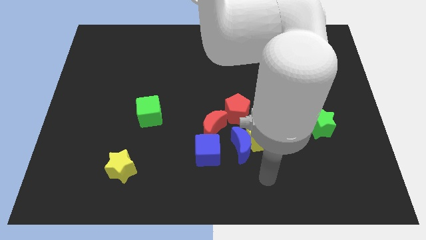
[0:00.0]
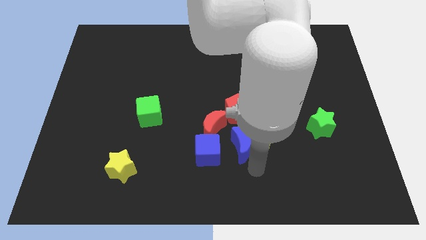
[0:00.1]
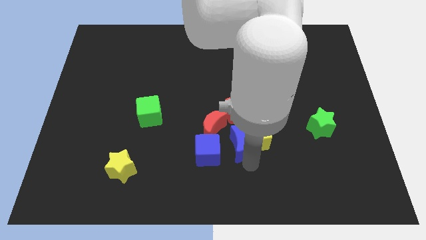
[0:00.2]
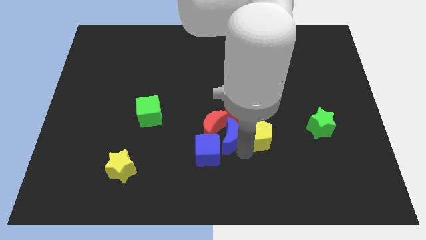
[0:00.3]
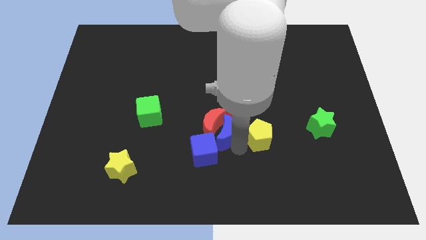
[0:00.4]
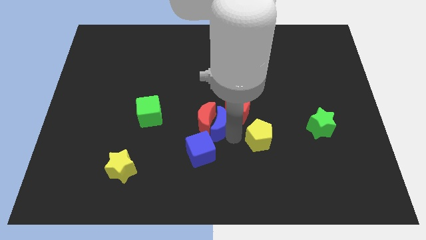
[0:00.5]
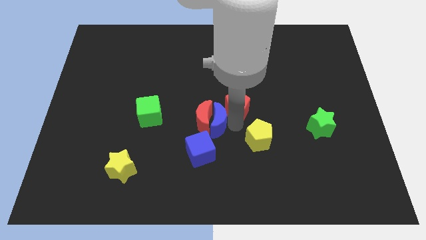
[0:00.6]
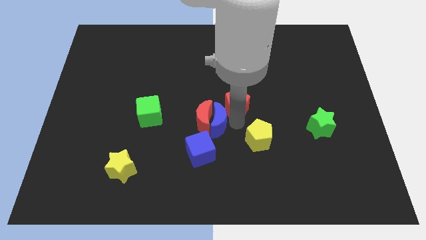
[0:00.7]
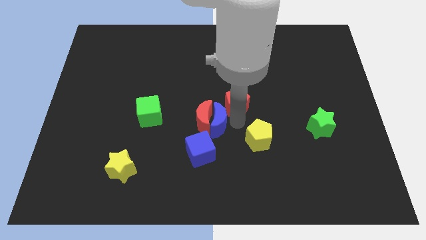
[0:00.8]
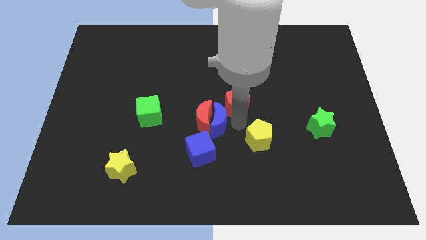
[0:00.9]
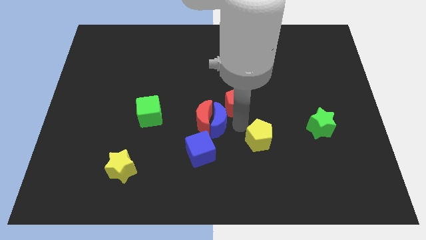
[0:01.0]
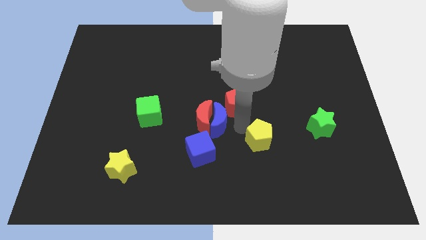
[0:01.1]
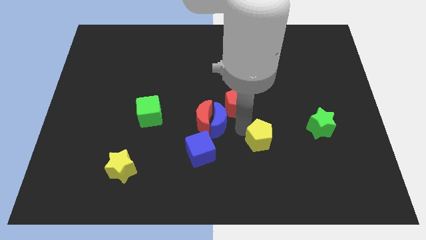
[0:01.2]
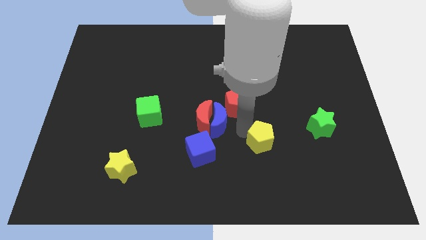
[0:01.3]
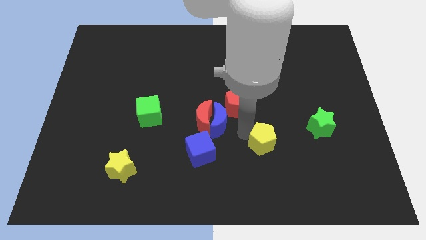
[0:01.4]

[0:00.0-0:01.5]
separate the yellow pentagon from the blue moon and red pentagon

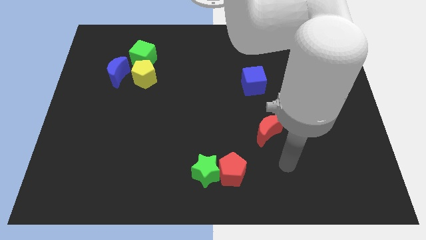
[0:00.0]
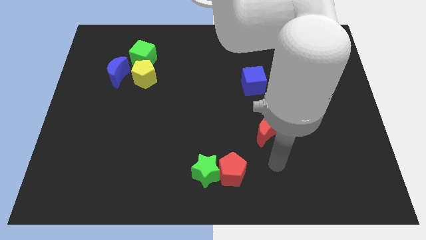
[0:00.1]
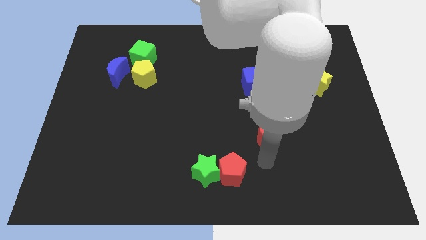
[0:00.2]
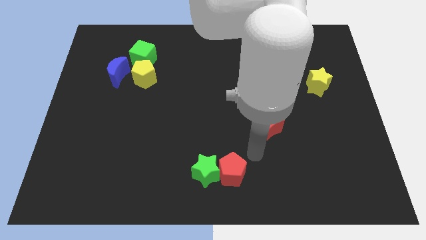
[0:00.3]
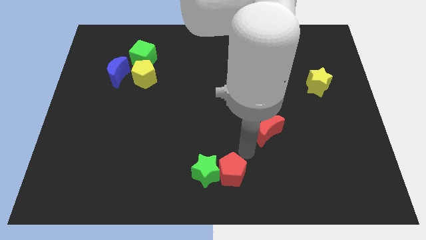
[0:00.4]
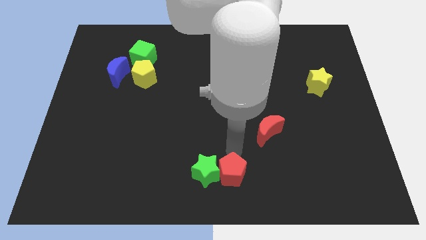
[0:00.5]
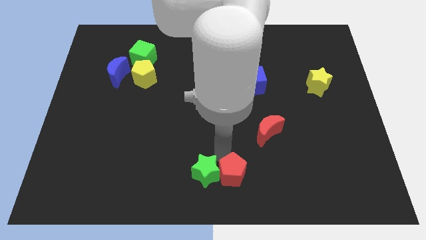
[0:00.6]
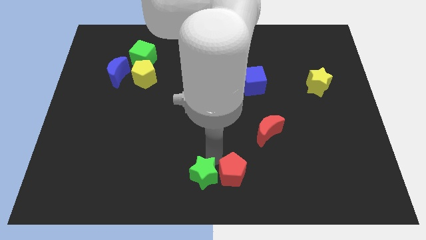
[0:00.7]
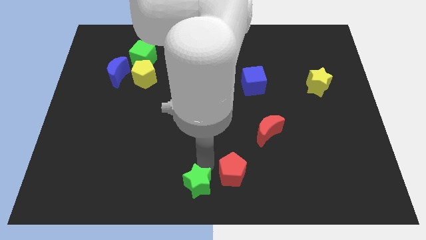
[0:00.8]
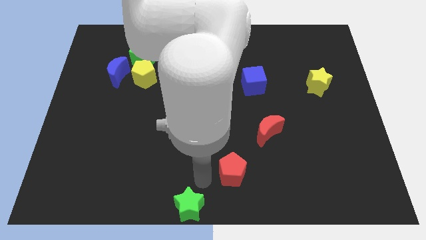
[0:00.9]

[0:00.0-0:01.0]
move the red pentagon away from the green star

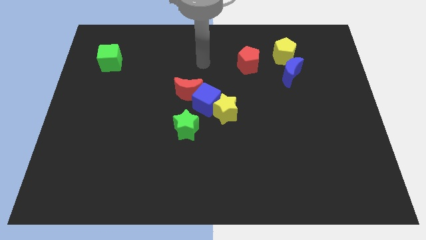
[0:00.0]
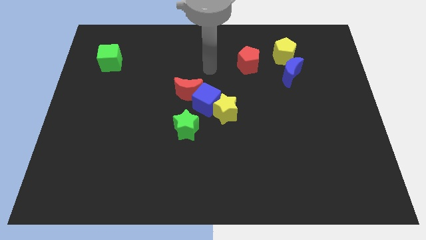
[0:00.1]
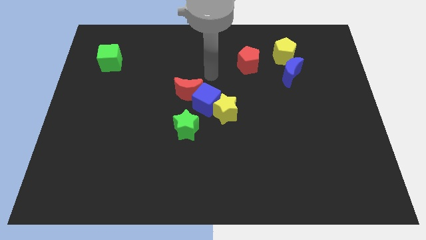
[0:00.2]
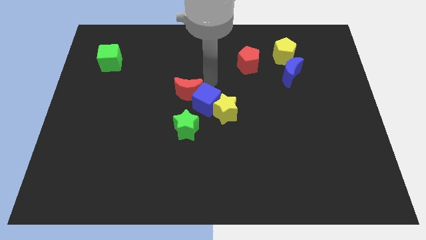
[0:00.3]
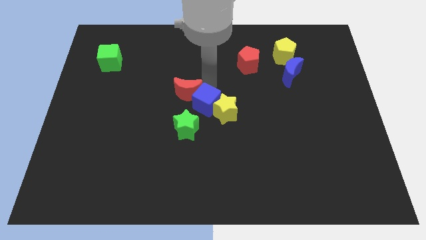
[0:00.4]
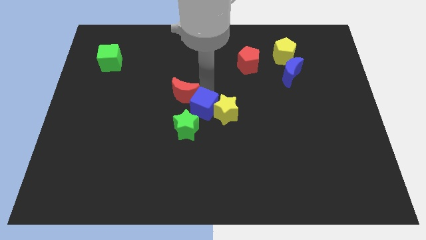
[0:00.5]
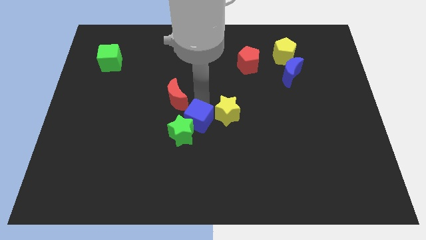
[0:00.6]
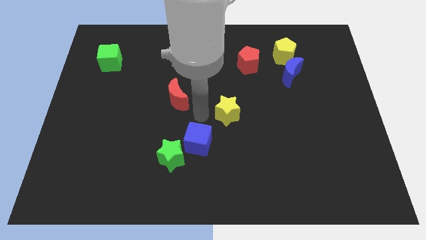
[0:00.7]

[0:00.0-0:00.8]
pull the yellow star apart from the blue cube

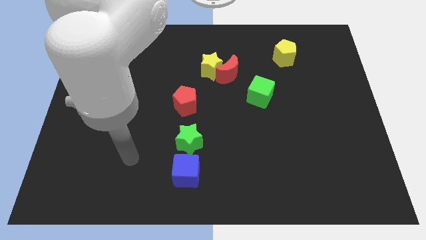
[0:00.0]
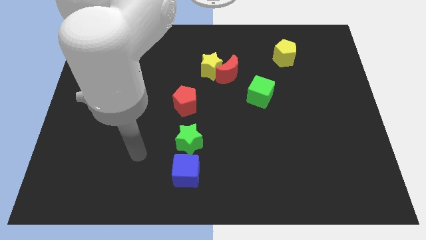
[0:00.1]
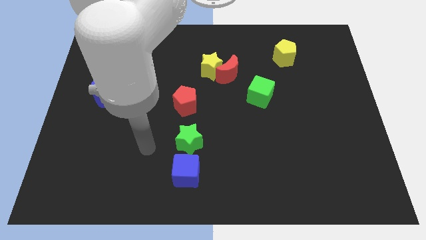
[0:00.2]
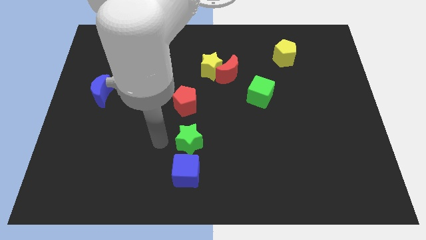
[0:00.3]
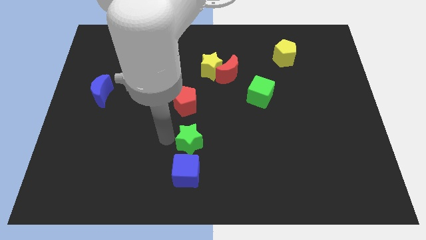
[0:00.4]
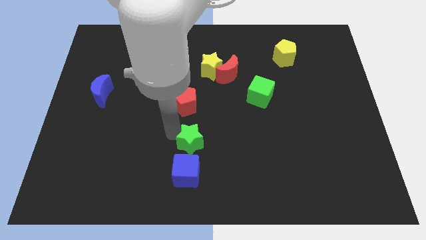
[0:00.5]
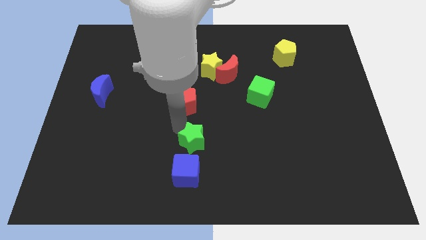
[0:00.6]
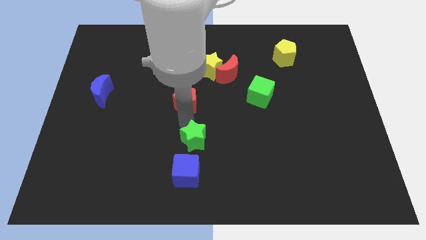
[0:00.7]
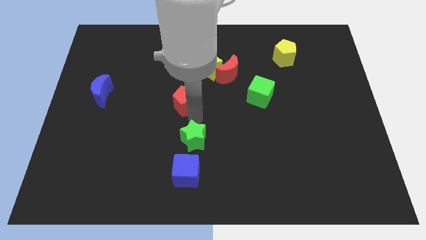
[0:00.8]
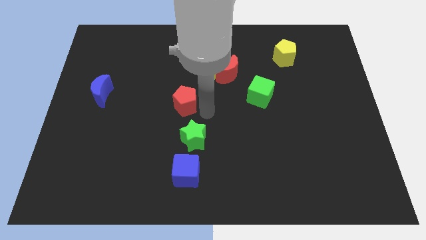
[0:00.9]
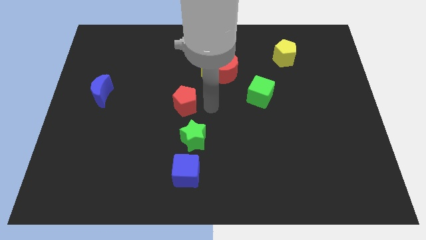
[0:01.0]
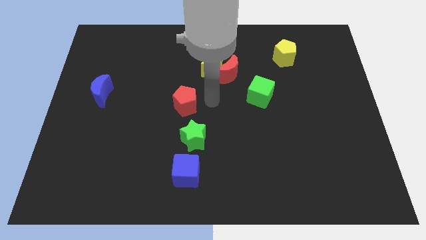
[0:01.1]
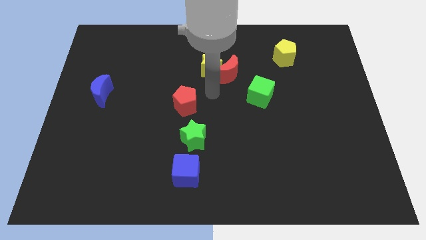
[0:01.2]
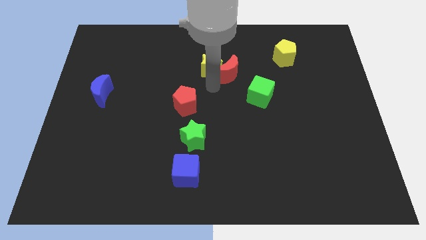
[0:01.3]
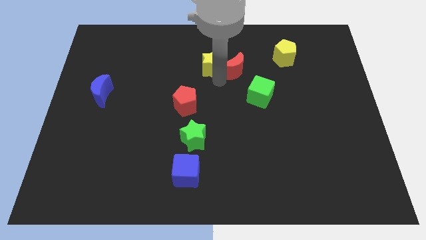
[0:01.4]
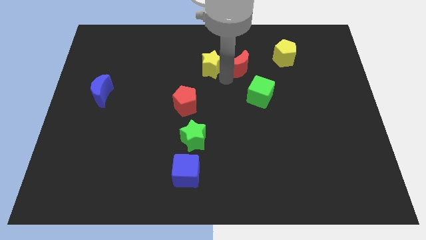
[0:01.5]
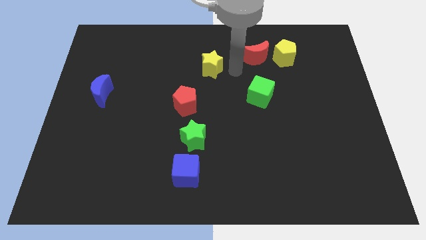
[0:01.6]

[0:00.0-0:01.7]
separate the yellow star from the red moon

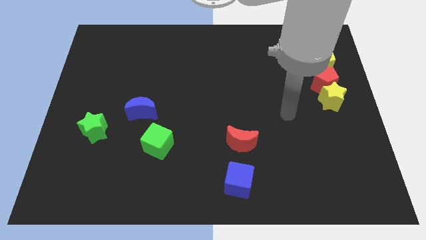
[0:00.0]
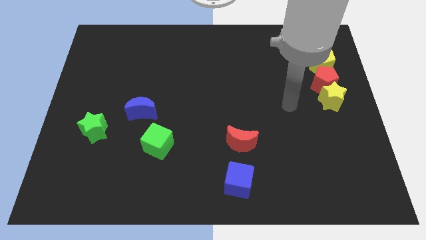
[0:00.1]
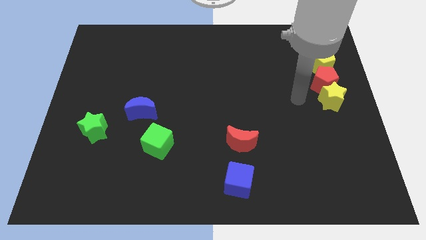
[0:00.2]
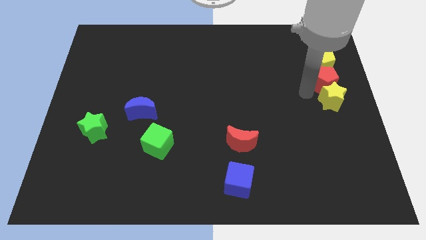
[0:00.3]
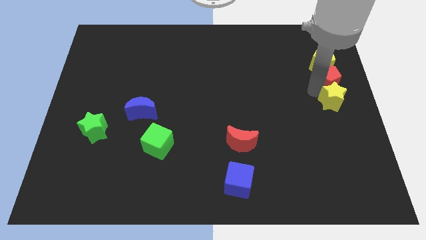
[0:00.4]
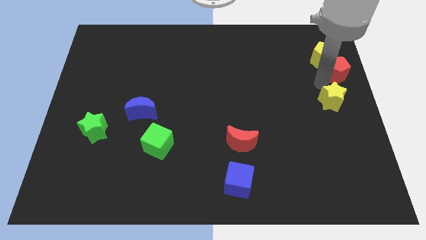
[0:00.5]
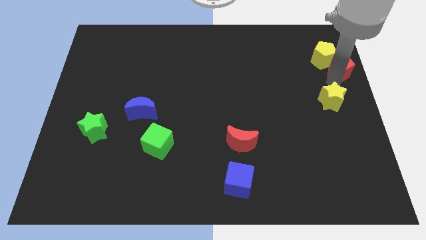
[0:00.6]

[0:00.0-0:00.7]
separate the yellow star from the red pentagon

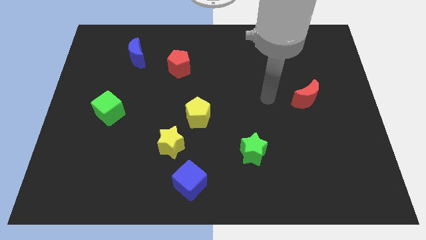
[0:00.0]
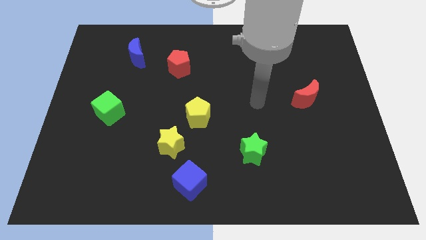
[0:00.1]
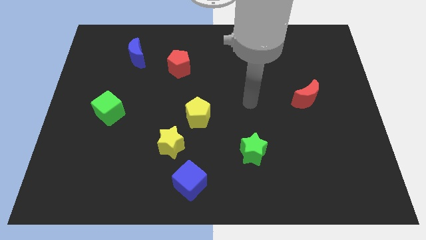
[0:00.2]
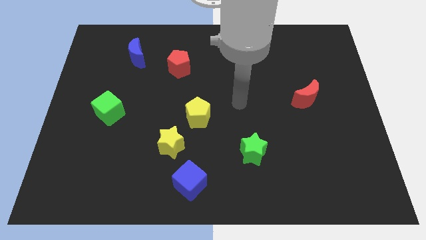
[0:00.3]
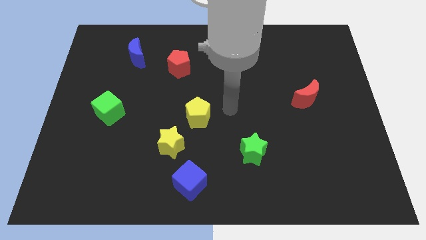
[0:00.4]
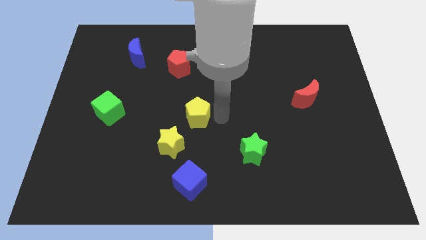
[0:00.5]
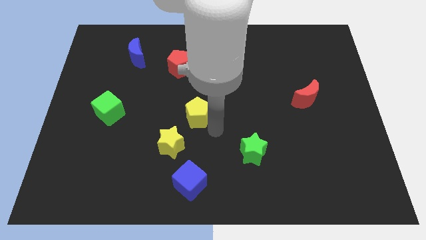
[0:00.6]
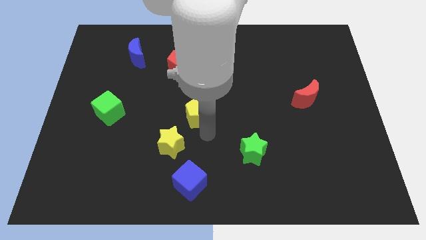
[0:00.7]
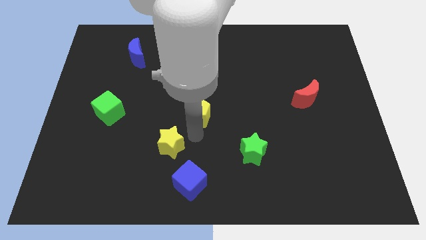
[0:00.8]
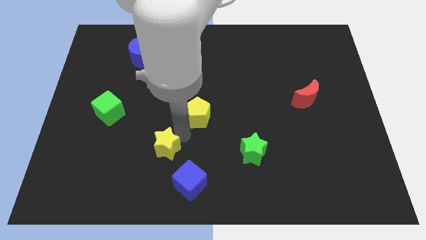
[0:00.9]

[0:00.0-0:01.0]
pull the yellow pentagon apart from the yellow star

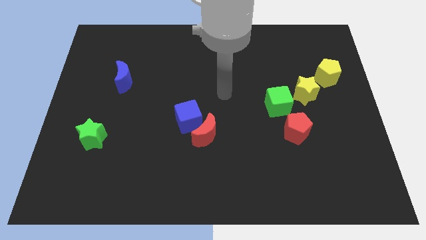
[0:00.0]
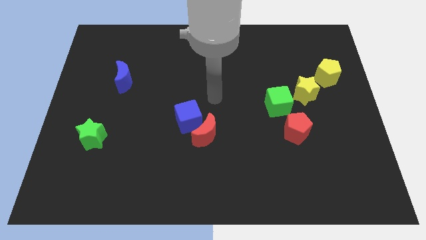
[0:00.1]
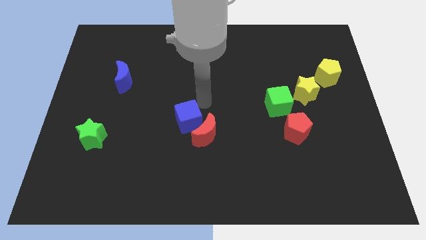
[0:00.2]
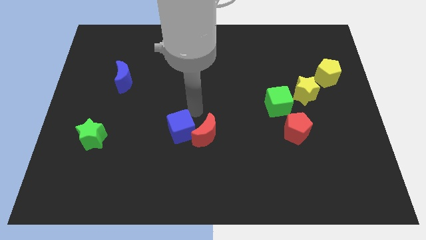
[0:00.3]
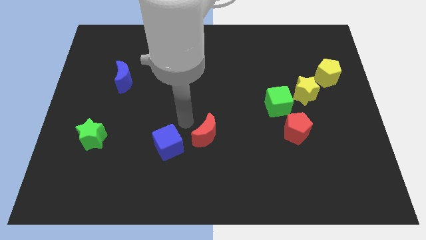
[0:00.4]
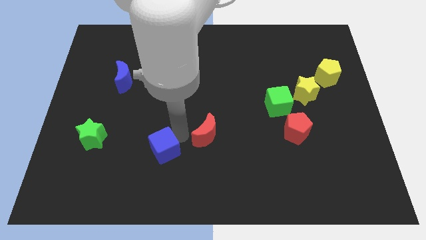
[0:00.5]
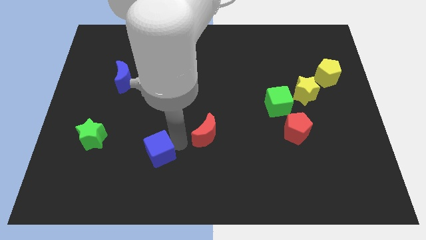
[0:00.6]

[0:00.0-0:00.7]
separate the red moon from the blue cube

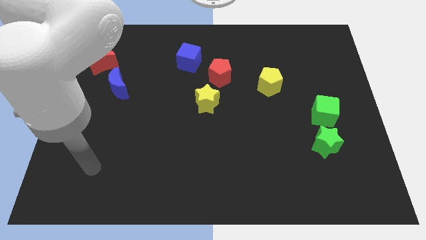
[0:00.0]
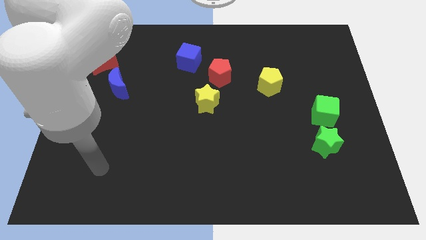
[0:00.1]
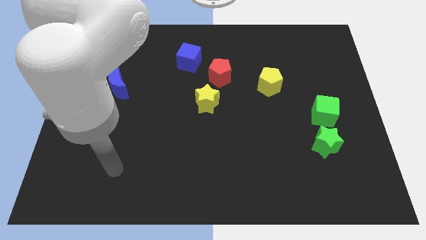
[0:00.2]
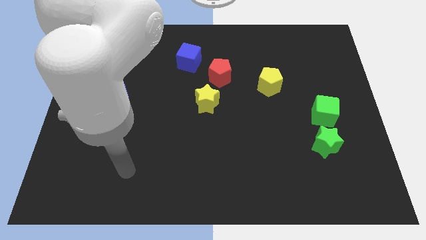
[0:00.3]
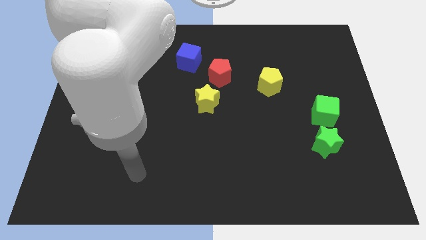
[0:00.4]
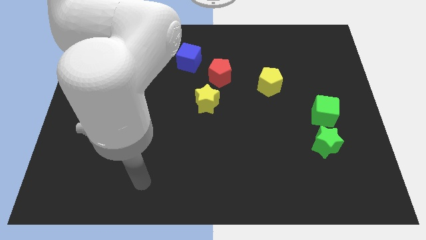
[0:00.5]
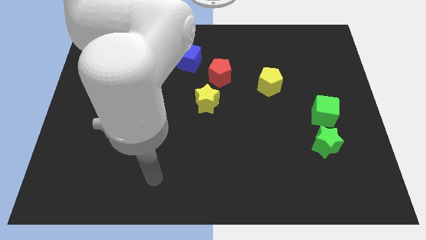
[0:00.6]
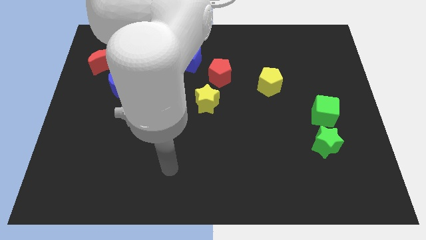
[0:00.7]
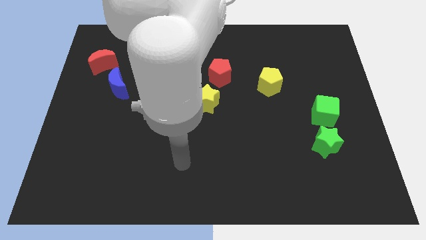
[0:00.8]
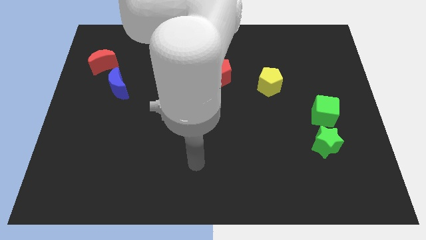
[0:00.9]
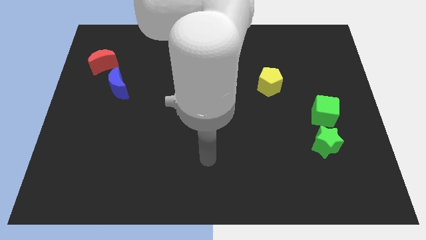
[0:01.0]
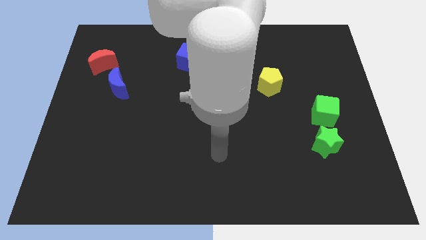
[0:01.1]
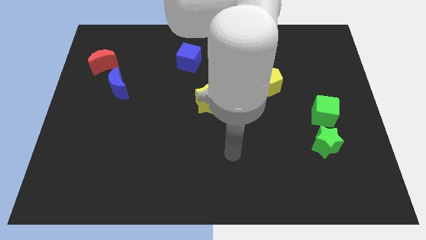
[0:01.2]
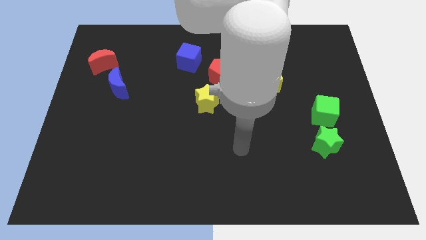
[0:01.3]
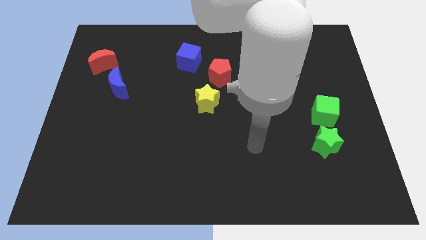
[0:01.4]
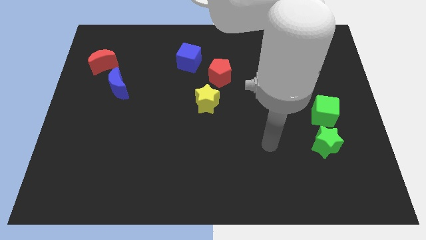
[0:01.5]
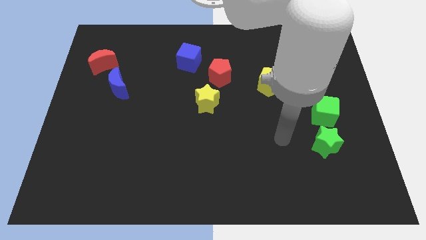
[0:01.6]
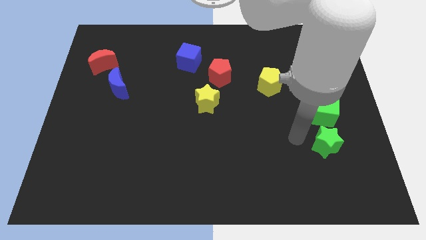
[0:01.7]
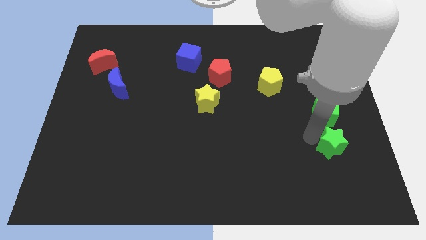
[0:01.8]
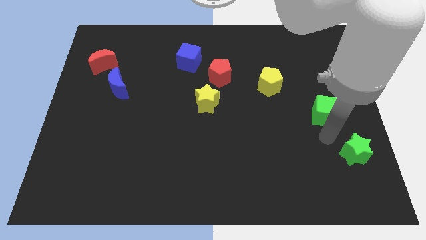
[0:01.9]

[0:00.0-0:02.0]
pull the green cube apart from the green star
